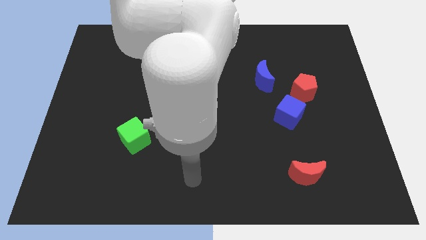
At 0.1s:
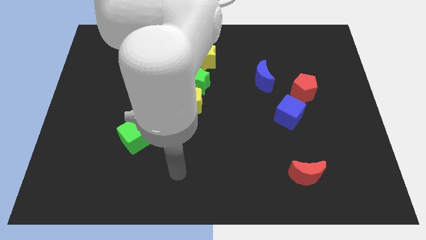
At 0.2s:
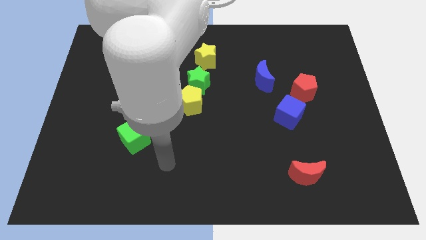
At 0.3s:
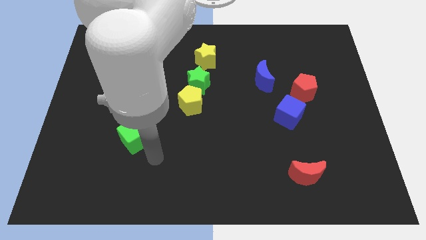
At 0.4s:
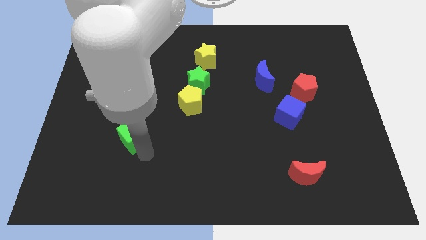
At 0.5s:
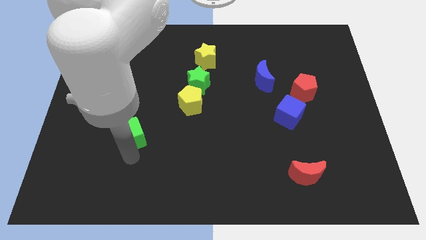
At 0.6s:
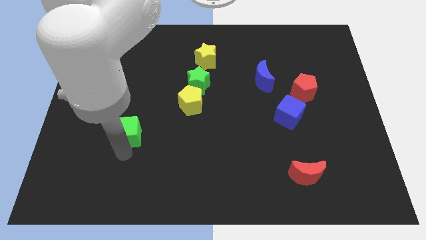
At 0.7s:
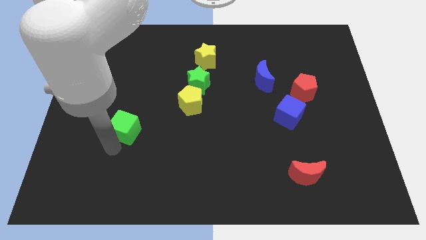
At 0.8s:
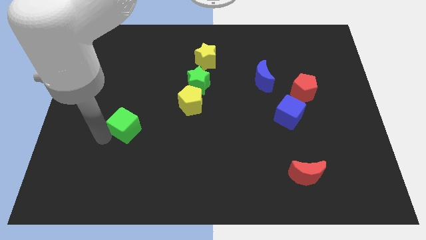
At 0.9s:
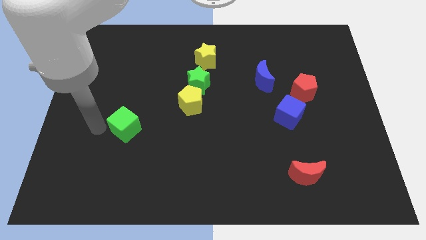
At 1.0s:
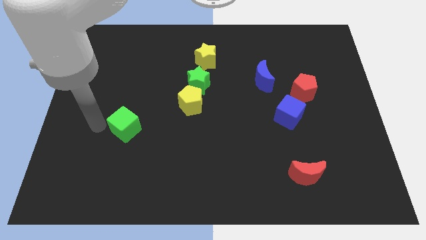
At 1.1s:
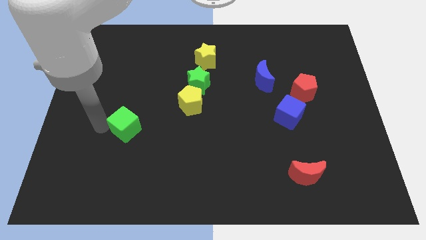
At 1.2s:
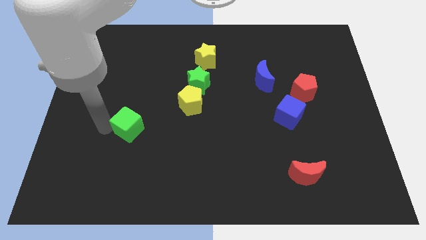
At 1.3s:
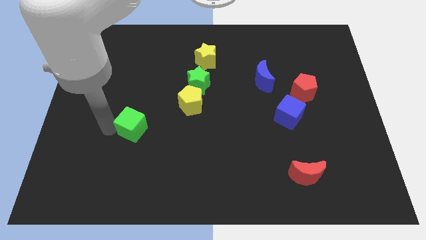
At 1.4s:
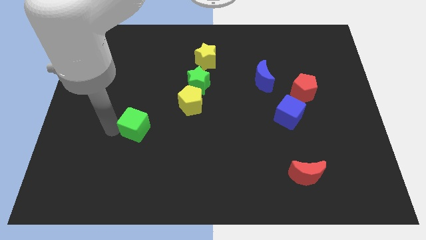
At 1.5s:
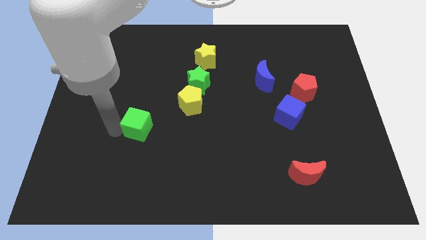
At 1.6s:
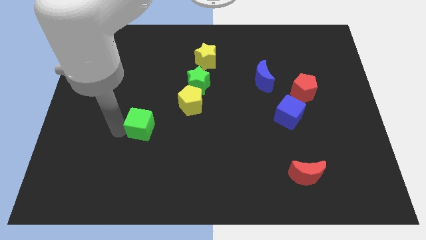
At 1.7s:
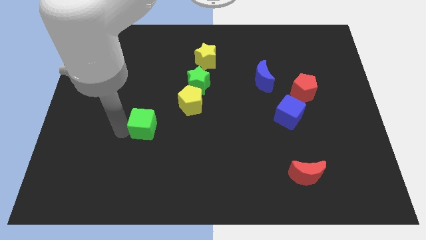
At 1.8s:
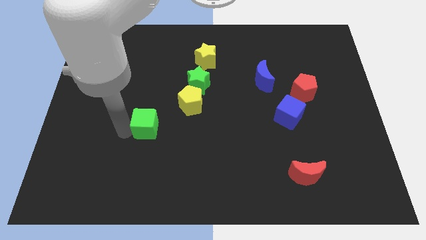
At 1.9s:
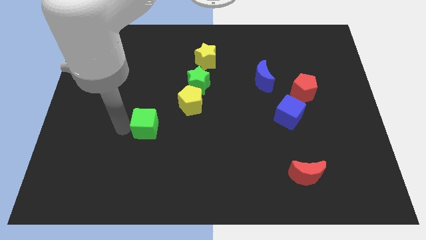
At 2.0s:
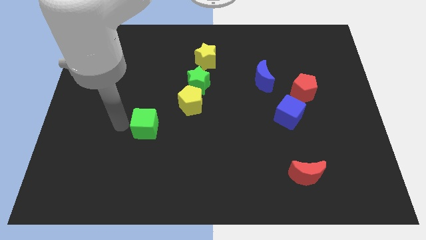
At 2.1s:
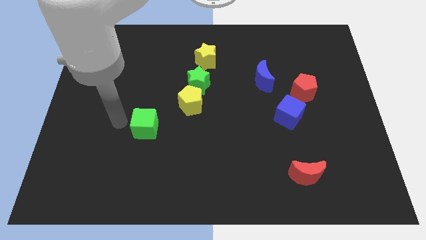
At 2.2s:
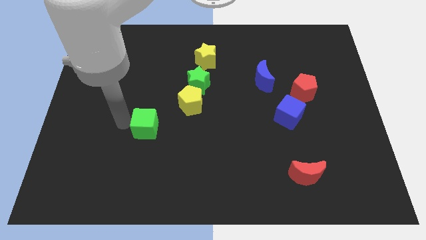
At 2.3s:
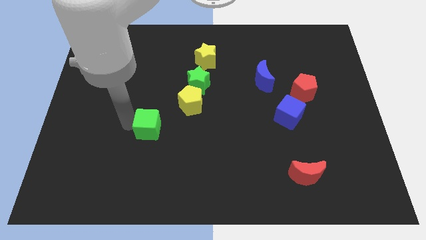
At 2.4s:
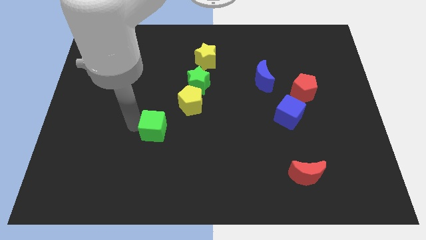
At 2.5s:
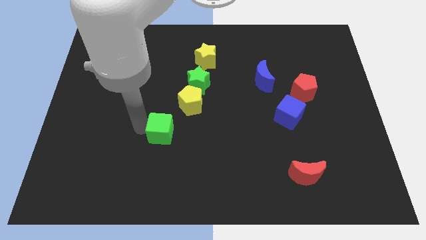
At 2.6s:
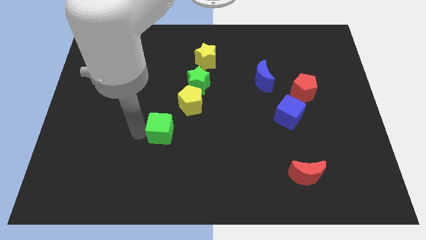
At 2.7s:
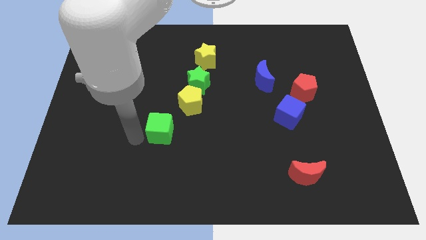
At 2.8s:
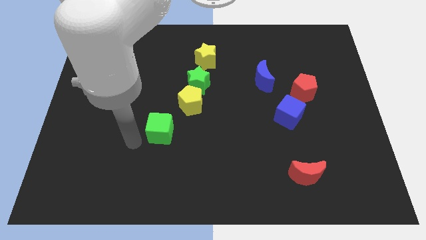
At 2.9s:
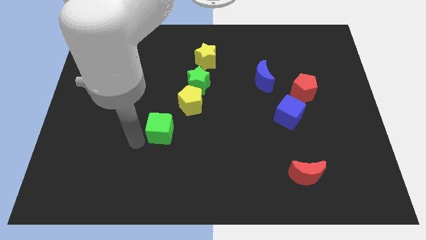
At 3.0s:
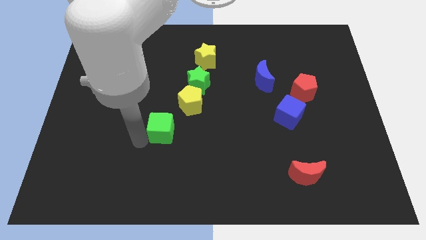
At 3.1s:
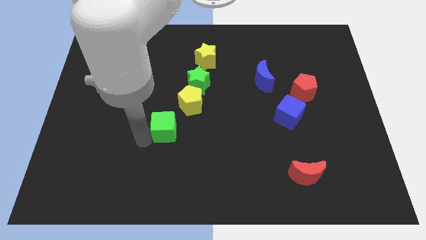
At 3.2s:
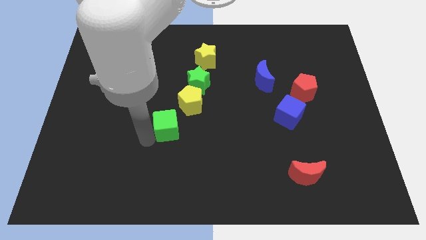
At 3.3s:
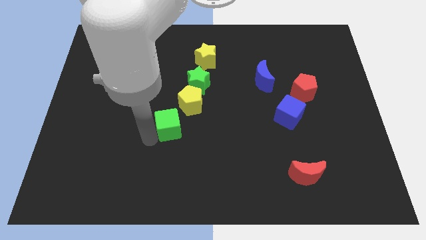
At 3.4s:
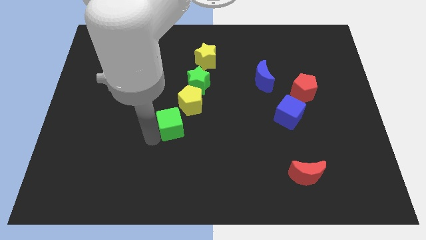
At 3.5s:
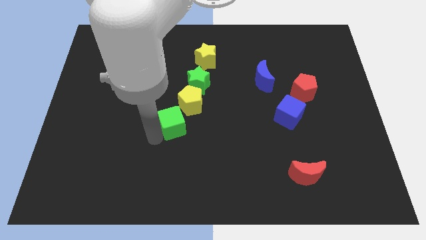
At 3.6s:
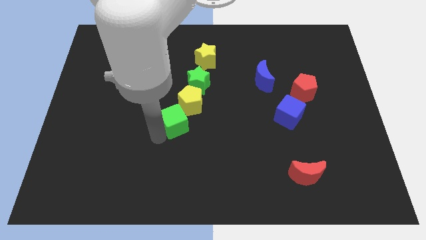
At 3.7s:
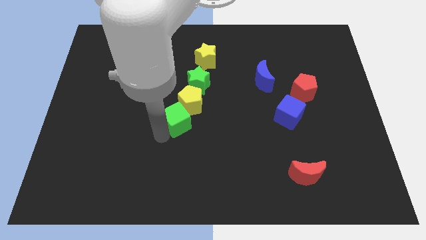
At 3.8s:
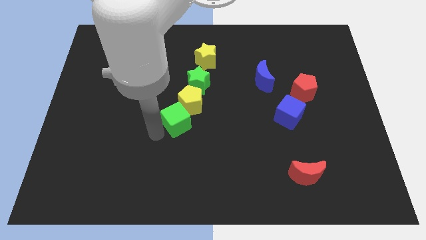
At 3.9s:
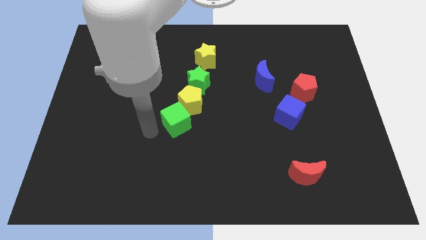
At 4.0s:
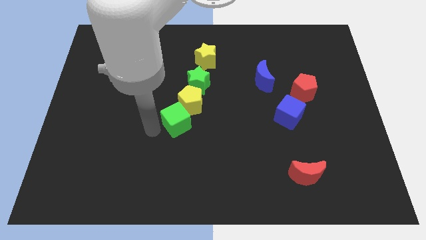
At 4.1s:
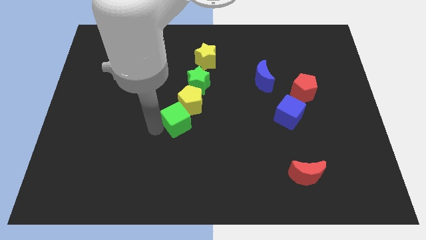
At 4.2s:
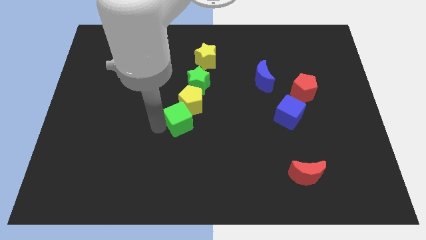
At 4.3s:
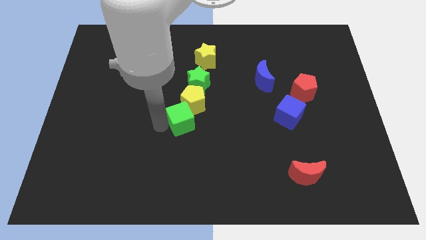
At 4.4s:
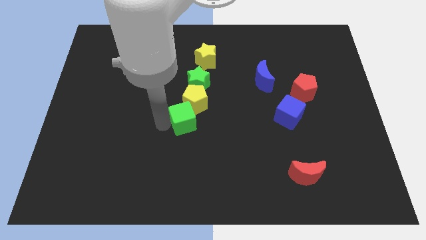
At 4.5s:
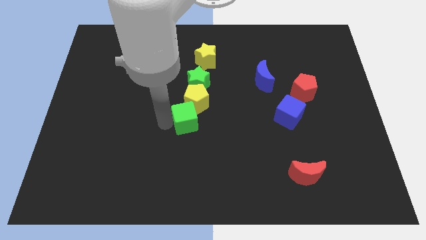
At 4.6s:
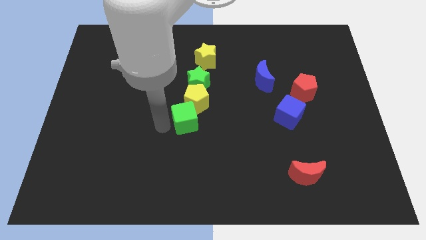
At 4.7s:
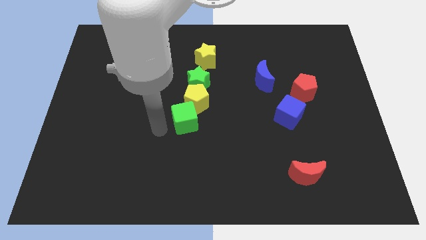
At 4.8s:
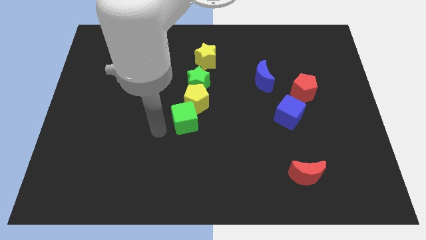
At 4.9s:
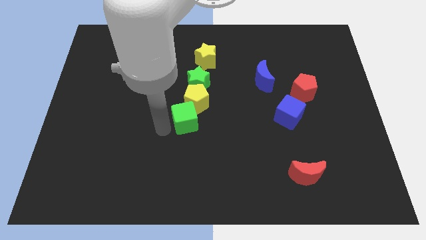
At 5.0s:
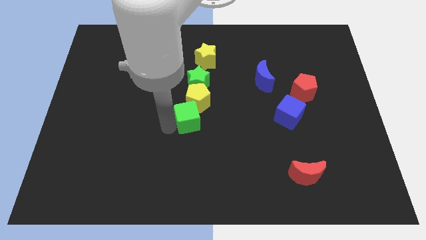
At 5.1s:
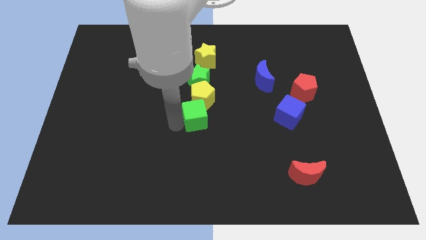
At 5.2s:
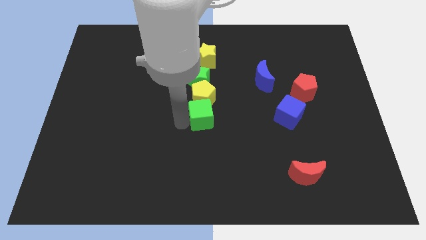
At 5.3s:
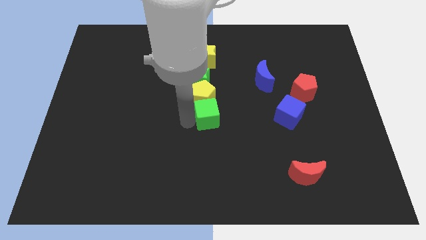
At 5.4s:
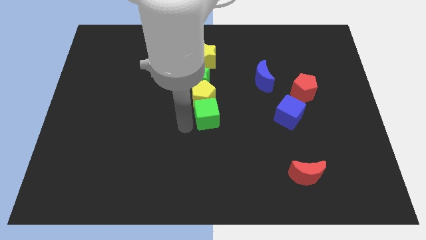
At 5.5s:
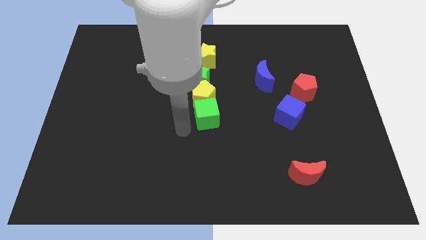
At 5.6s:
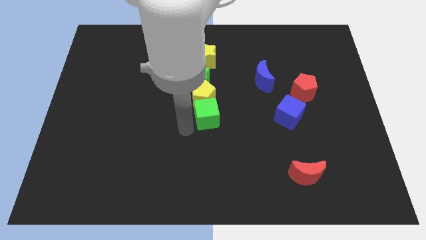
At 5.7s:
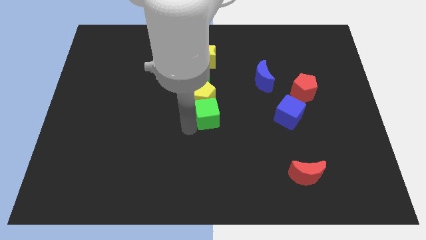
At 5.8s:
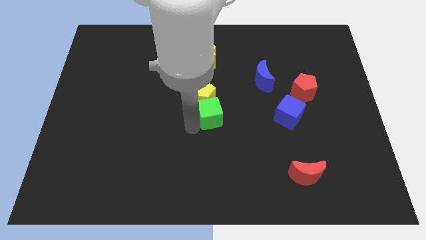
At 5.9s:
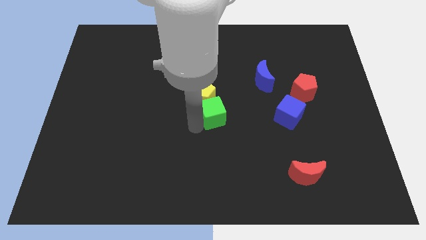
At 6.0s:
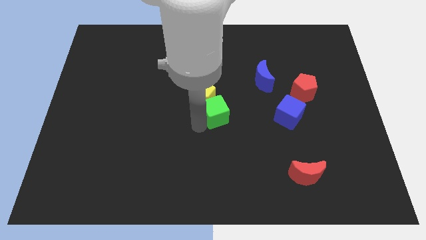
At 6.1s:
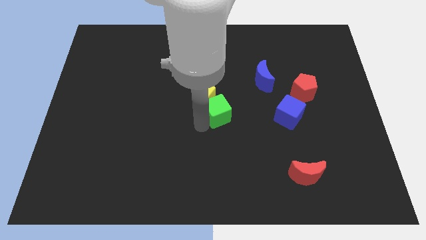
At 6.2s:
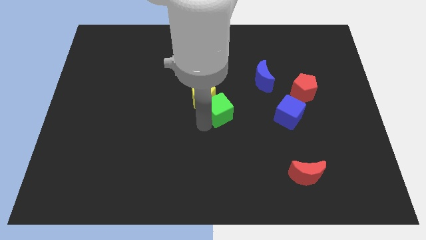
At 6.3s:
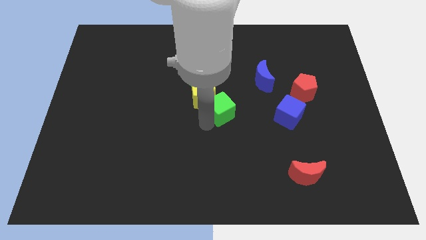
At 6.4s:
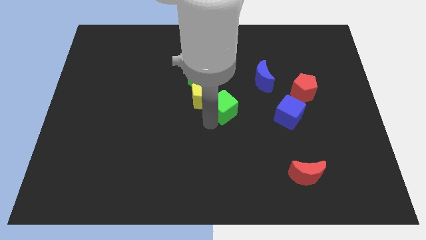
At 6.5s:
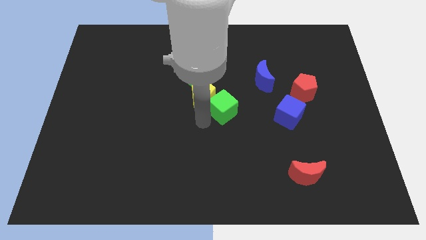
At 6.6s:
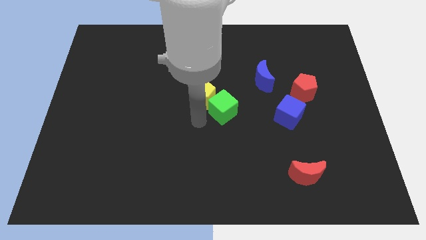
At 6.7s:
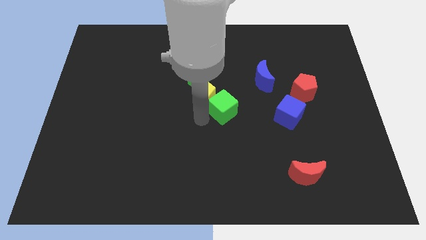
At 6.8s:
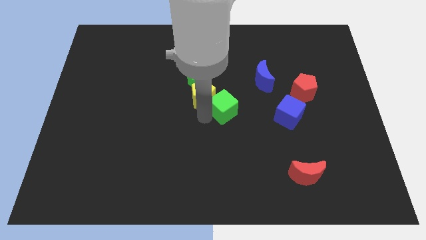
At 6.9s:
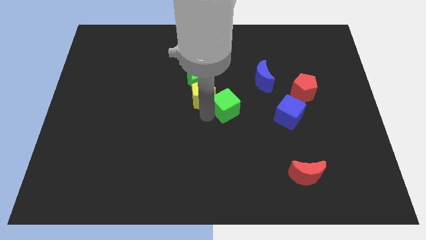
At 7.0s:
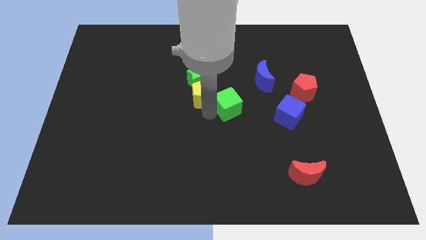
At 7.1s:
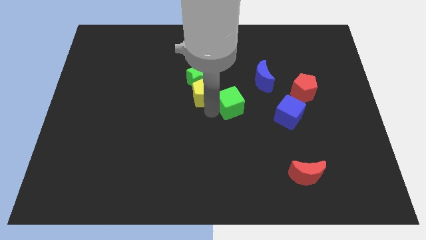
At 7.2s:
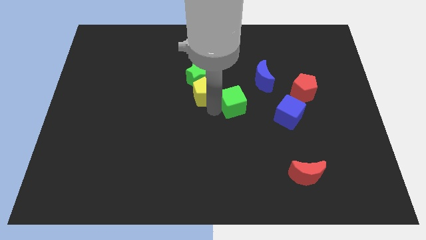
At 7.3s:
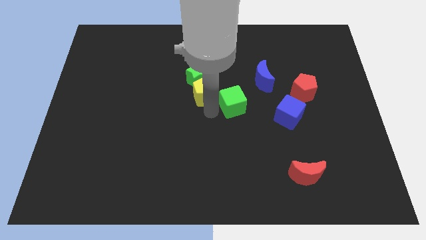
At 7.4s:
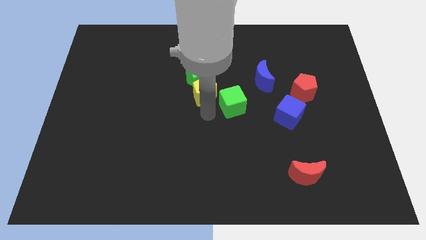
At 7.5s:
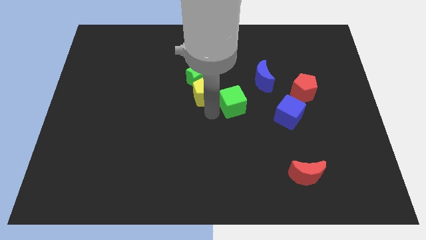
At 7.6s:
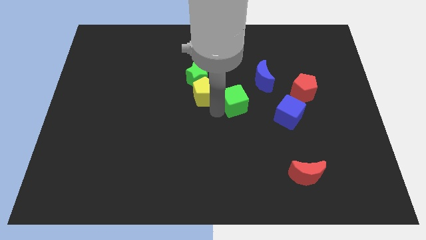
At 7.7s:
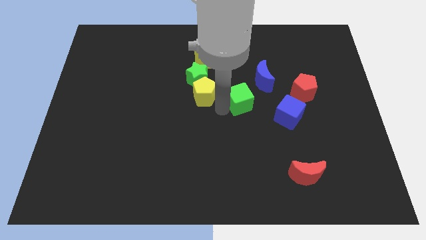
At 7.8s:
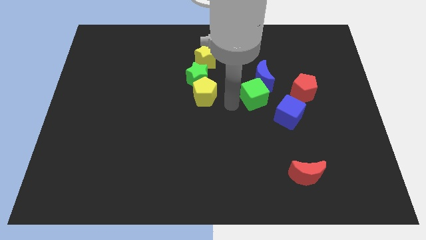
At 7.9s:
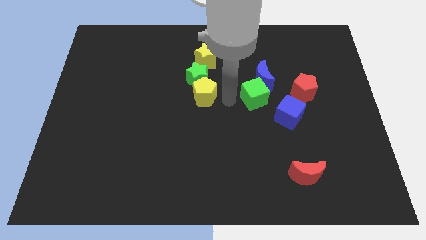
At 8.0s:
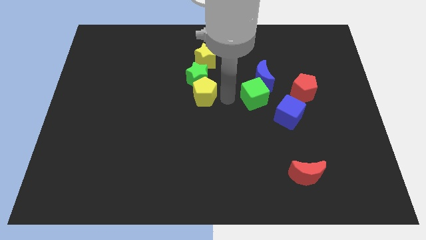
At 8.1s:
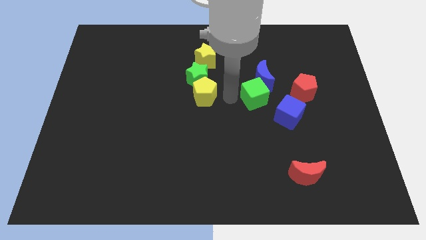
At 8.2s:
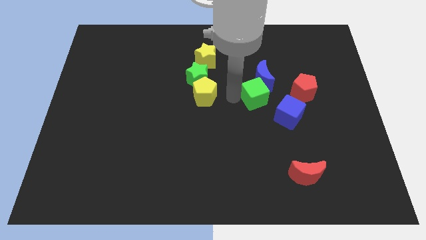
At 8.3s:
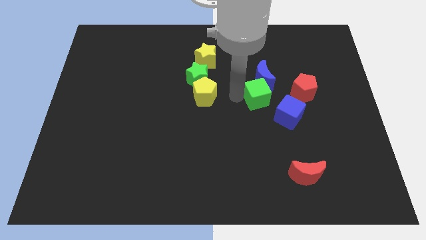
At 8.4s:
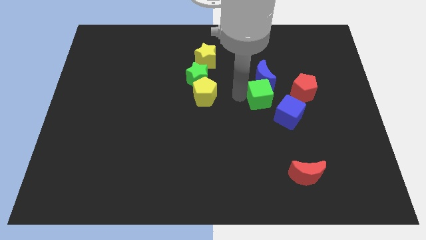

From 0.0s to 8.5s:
push the green cube diagonally down and to the right of the blue moon
